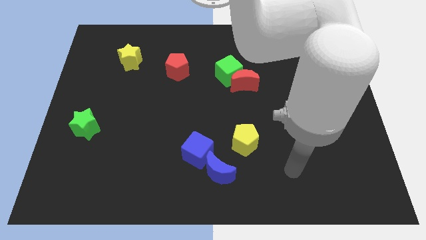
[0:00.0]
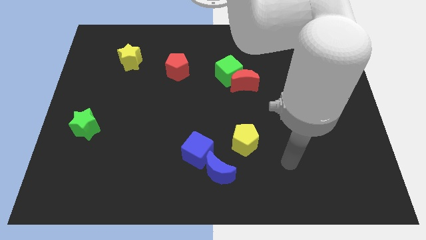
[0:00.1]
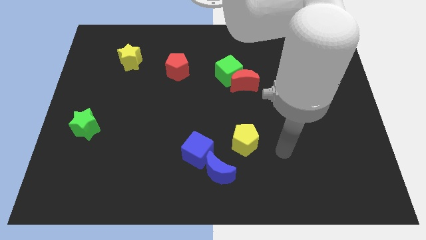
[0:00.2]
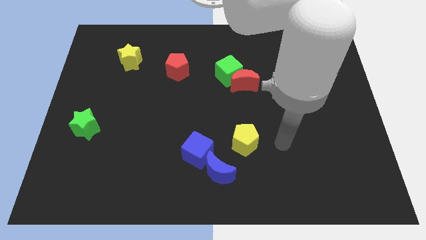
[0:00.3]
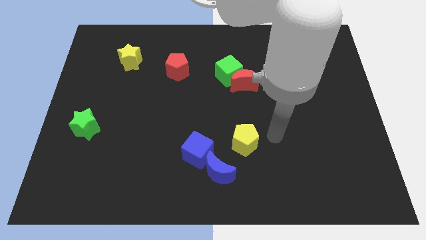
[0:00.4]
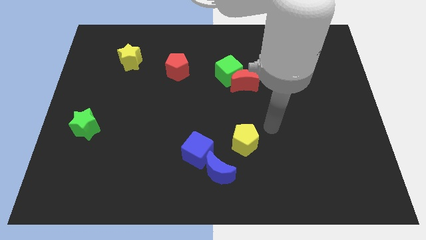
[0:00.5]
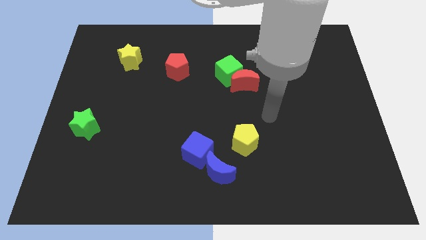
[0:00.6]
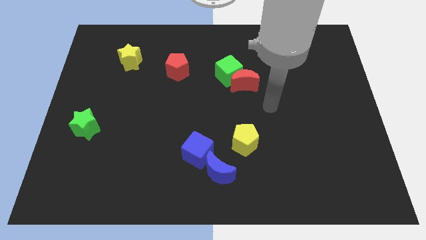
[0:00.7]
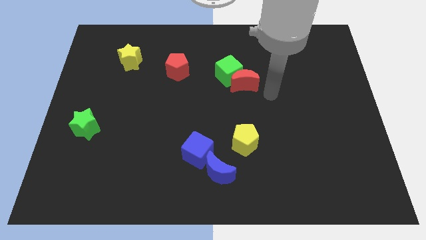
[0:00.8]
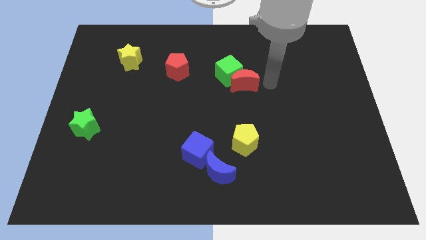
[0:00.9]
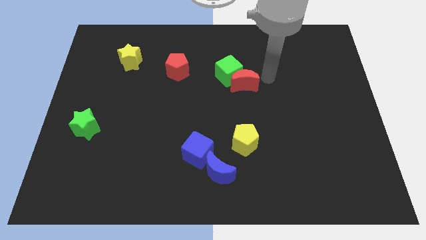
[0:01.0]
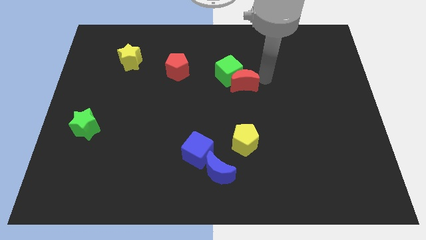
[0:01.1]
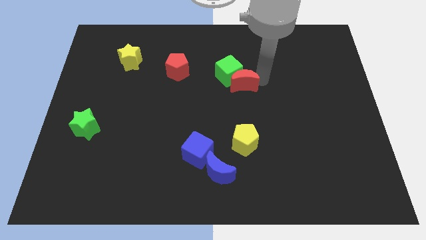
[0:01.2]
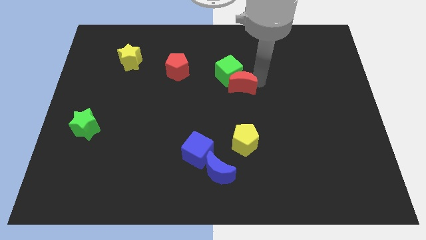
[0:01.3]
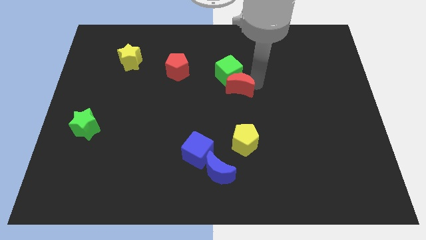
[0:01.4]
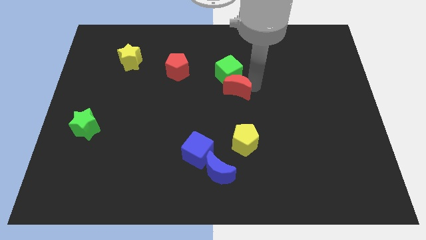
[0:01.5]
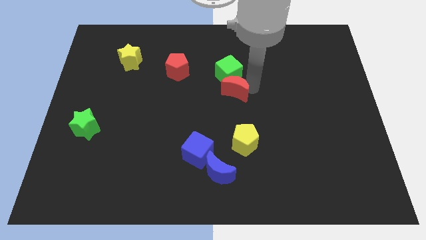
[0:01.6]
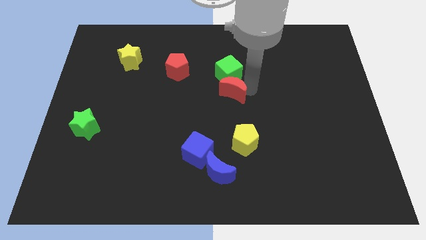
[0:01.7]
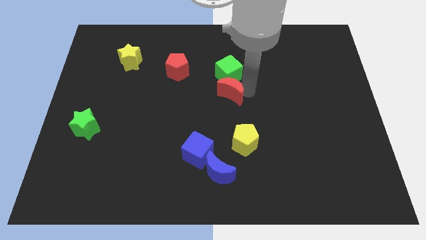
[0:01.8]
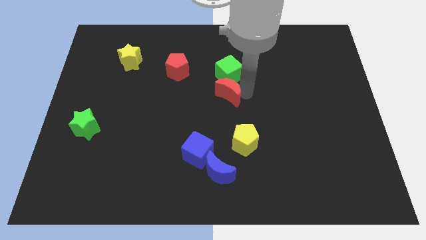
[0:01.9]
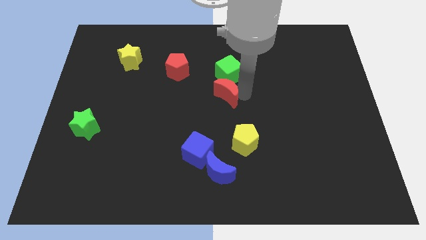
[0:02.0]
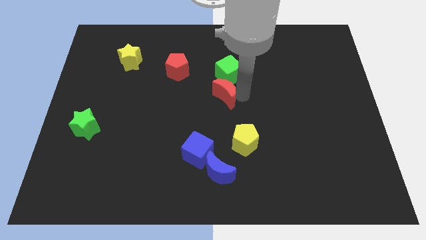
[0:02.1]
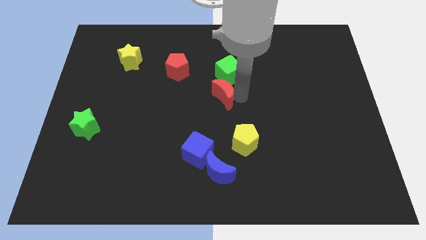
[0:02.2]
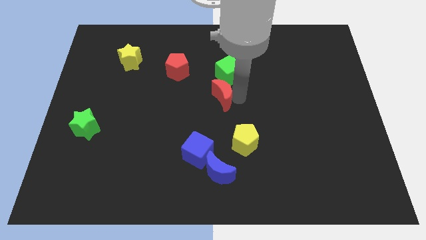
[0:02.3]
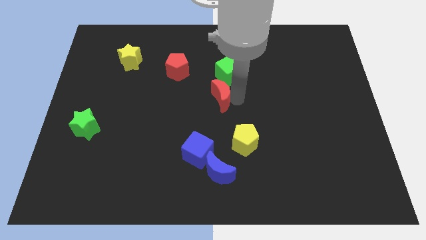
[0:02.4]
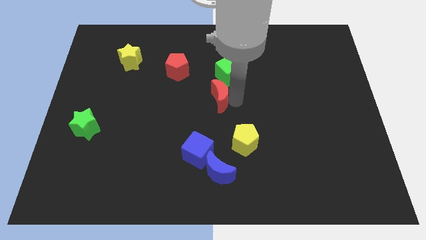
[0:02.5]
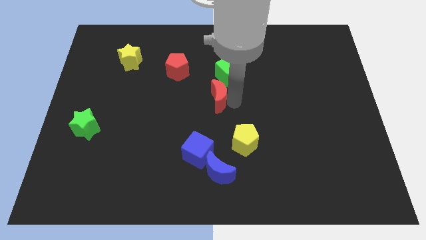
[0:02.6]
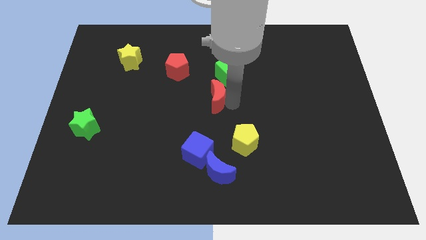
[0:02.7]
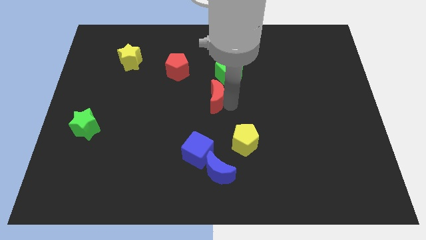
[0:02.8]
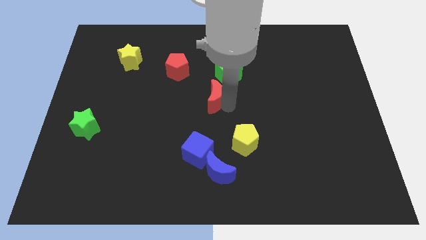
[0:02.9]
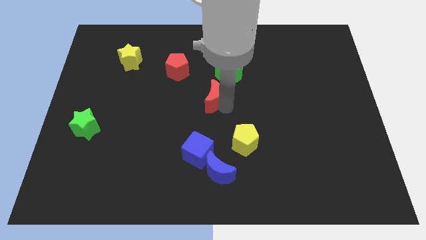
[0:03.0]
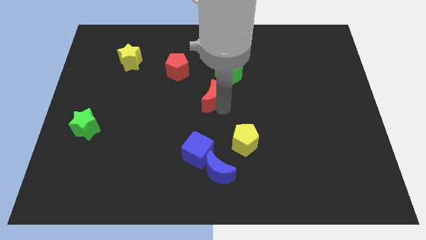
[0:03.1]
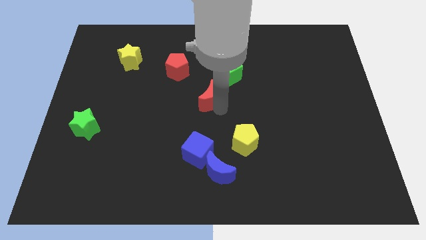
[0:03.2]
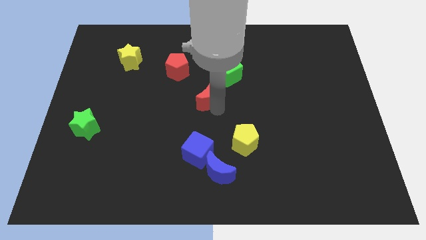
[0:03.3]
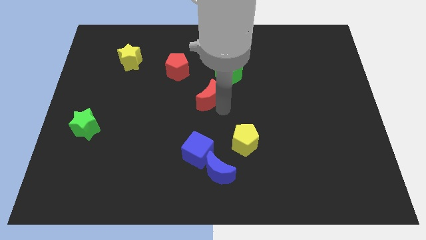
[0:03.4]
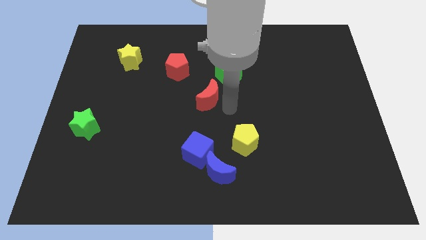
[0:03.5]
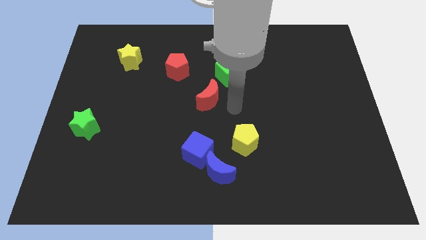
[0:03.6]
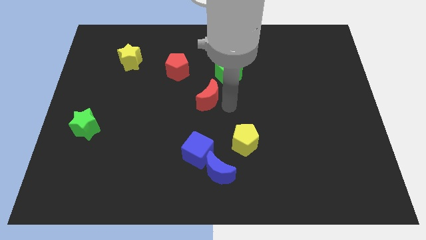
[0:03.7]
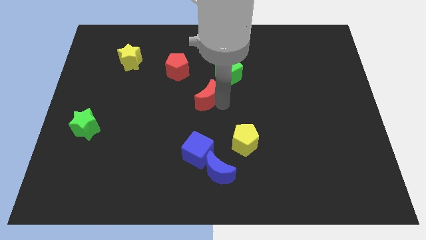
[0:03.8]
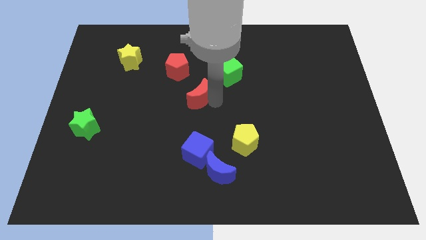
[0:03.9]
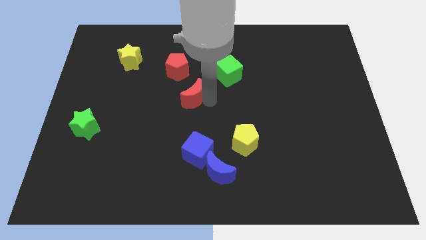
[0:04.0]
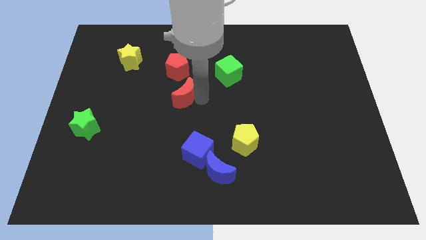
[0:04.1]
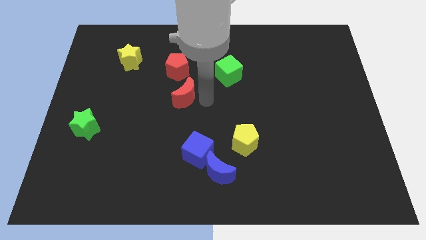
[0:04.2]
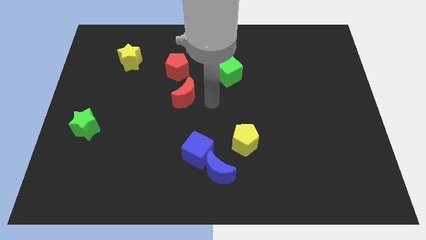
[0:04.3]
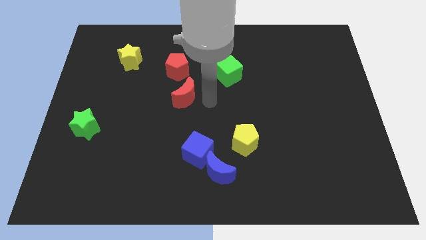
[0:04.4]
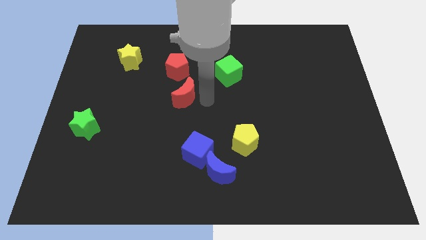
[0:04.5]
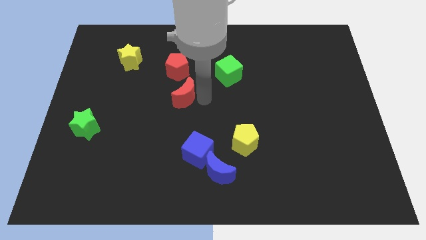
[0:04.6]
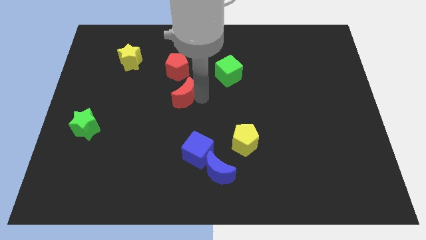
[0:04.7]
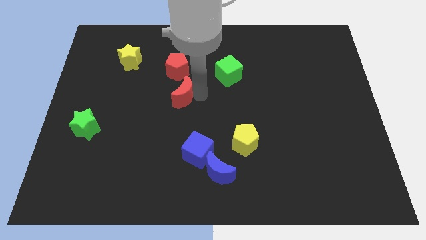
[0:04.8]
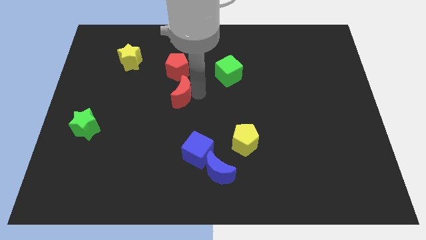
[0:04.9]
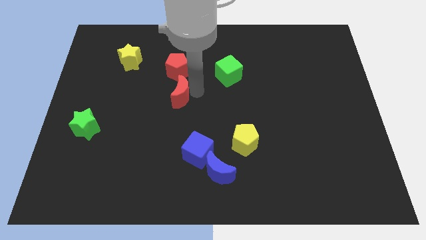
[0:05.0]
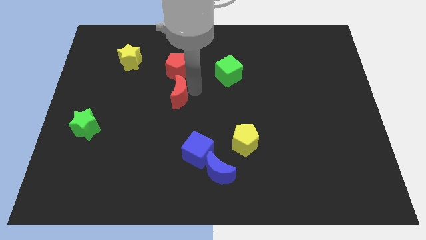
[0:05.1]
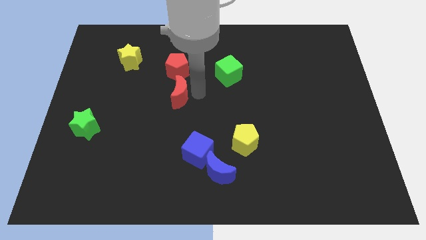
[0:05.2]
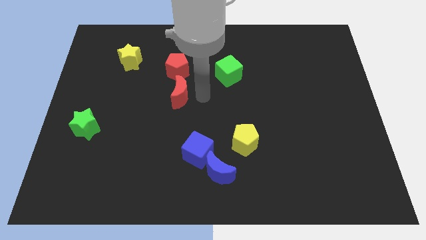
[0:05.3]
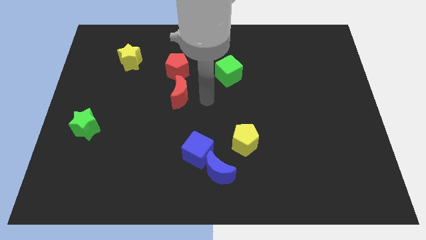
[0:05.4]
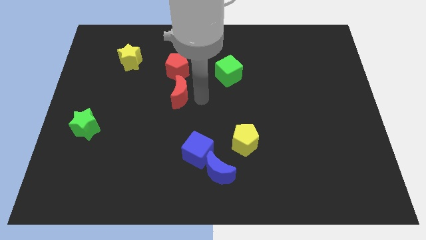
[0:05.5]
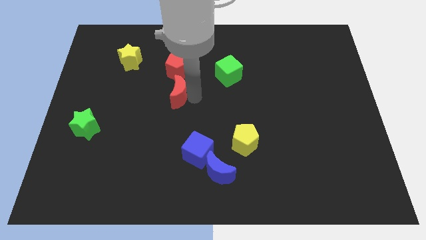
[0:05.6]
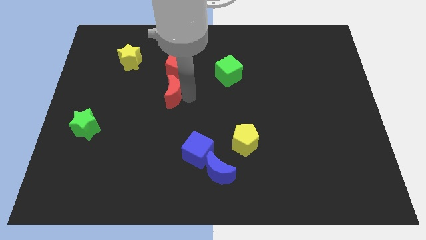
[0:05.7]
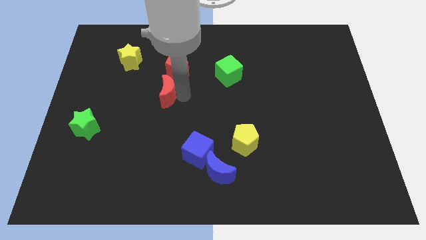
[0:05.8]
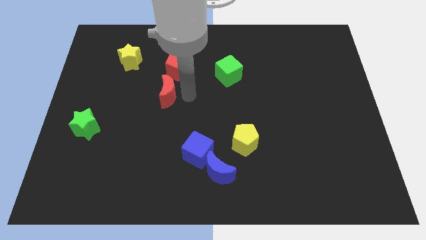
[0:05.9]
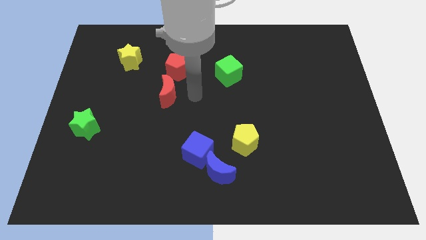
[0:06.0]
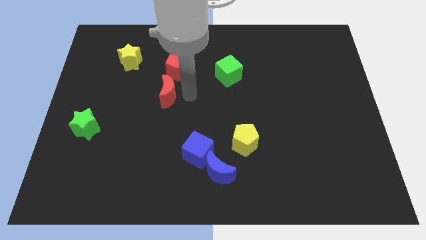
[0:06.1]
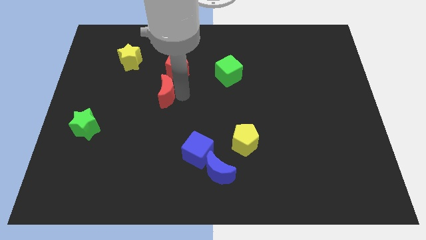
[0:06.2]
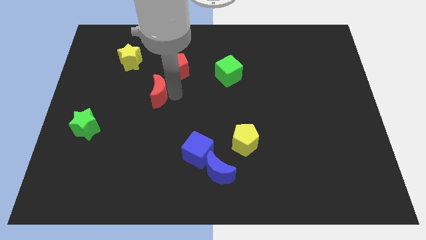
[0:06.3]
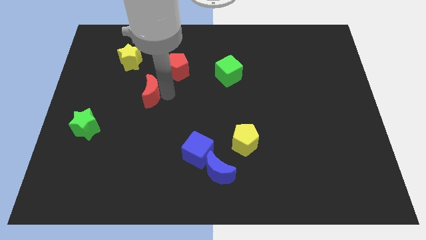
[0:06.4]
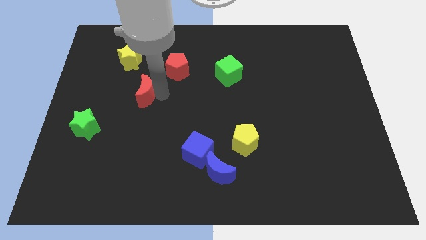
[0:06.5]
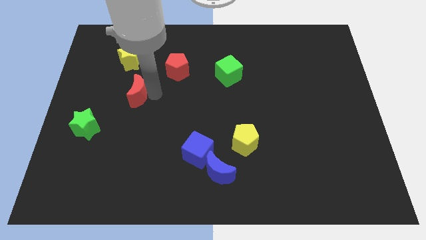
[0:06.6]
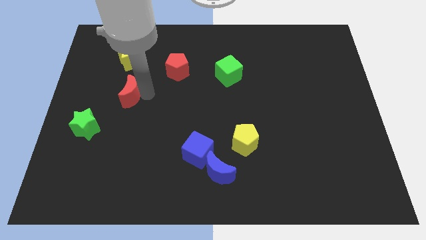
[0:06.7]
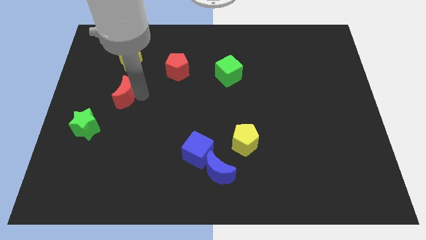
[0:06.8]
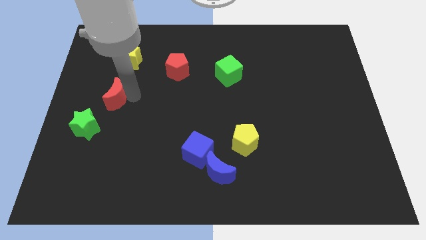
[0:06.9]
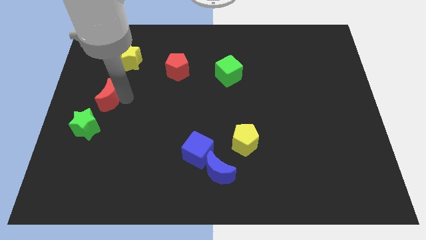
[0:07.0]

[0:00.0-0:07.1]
move the red moon above the green star

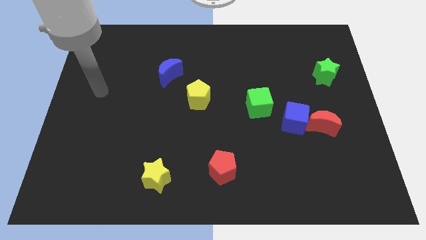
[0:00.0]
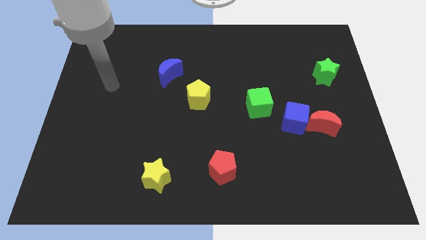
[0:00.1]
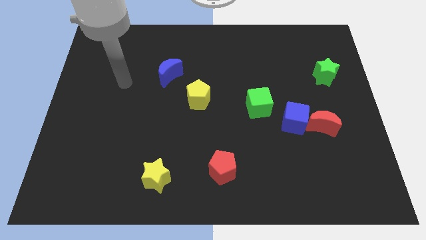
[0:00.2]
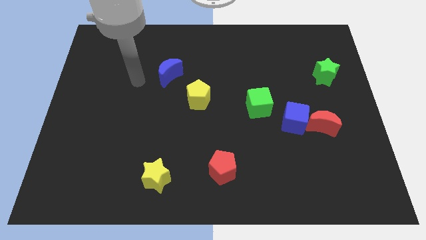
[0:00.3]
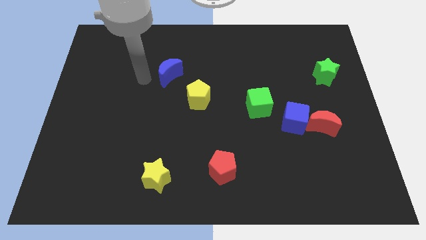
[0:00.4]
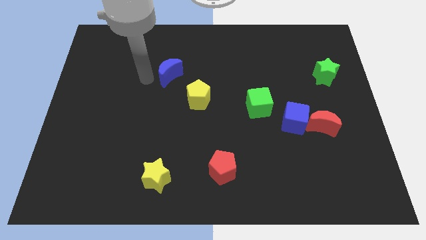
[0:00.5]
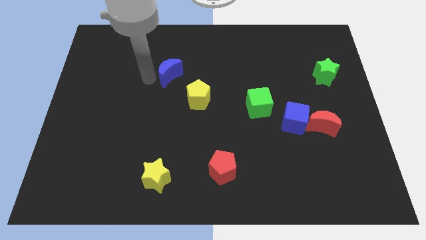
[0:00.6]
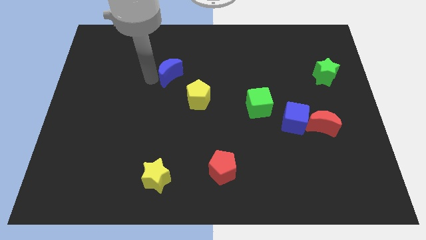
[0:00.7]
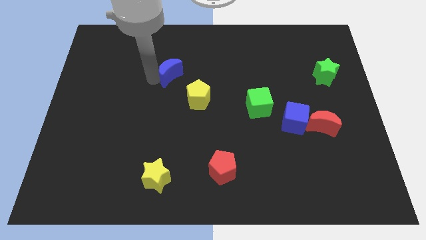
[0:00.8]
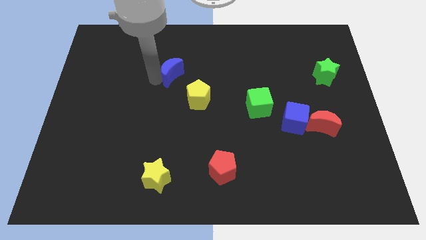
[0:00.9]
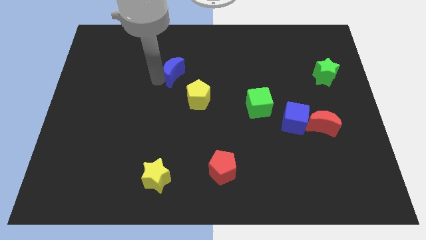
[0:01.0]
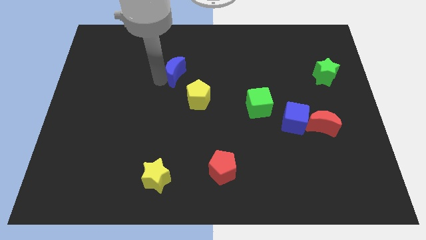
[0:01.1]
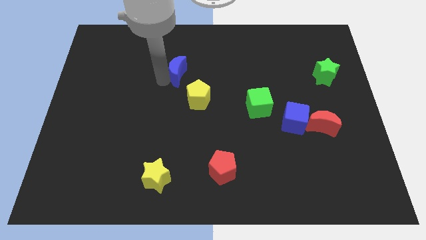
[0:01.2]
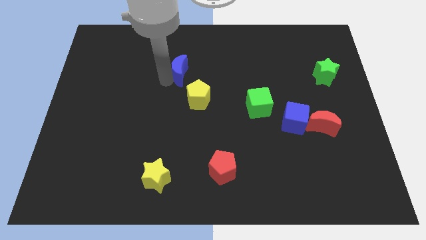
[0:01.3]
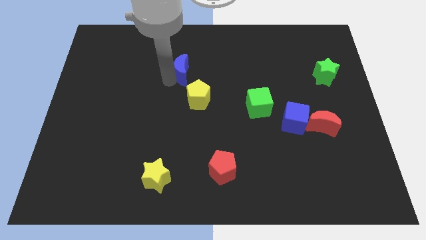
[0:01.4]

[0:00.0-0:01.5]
slide the blue moon above the yellow pentagon
